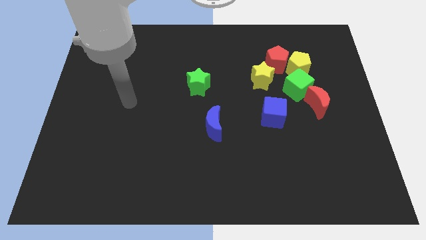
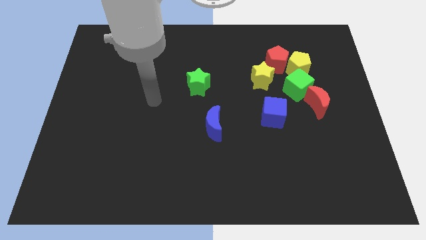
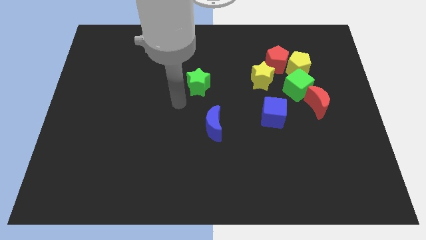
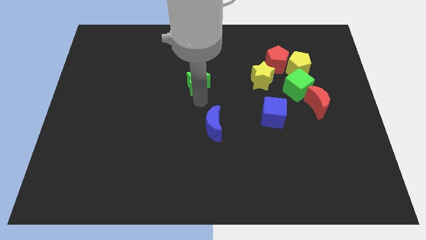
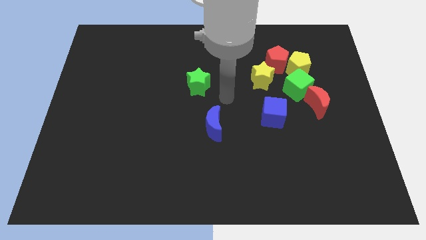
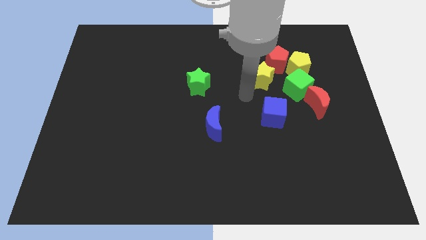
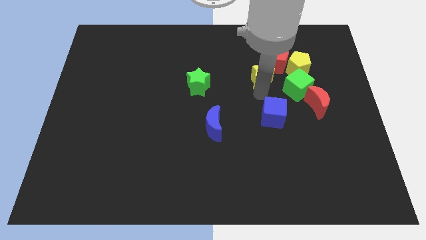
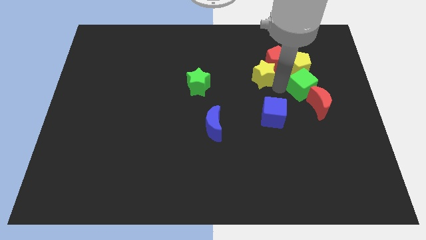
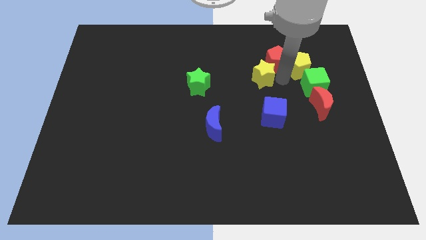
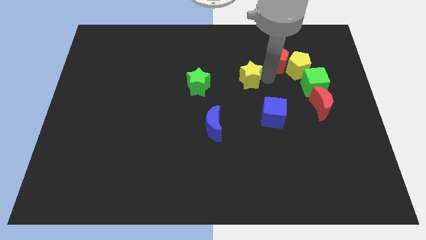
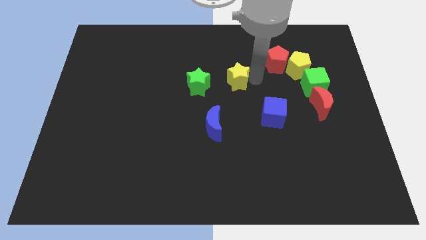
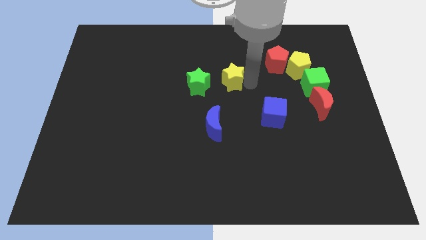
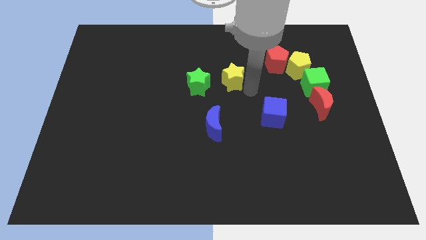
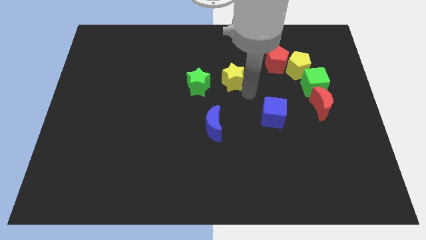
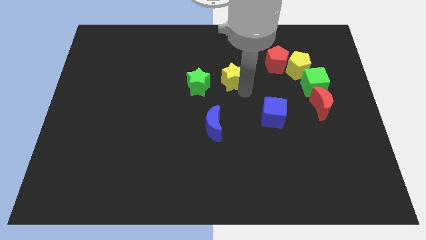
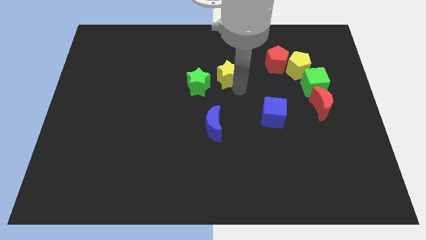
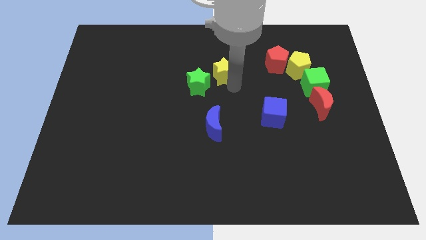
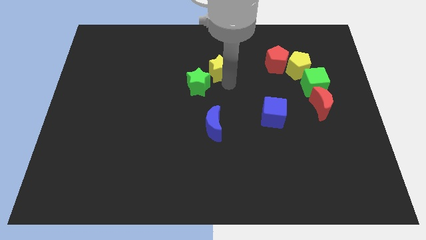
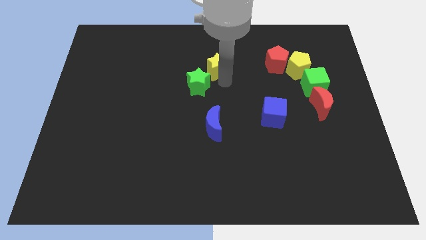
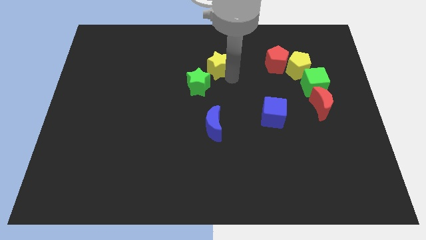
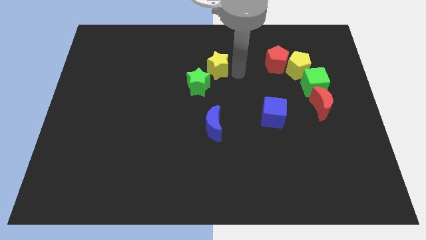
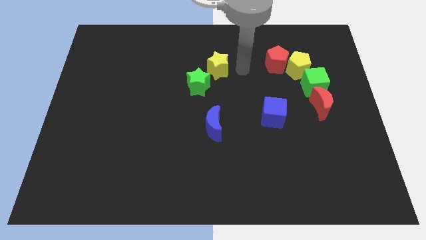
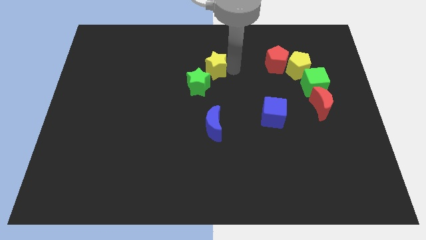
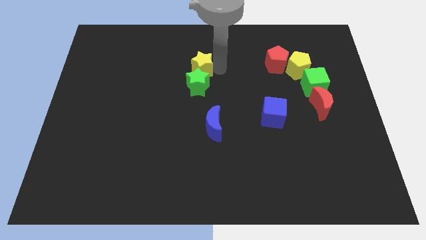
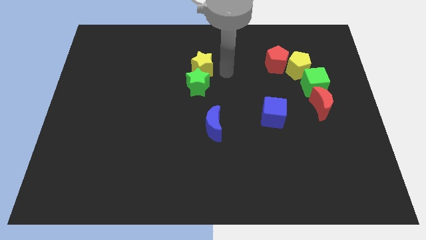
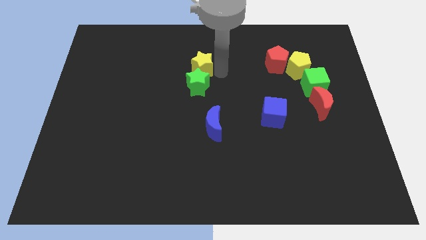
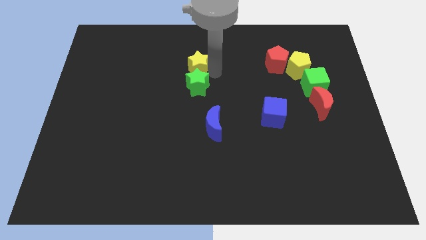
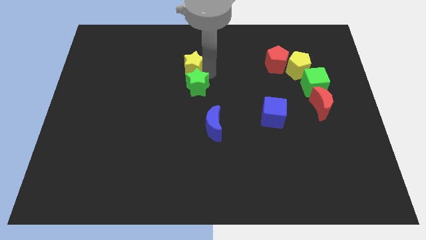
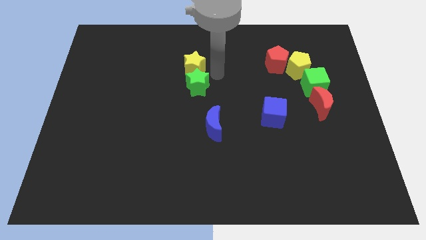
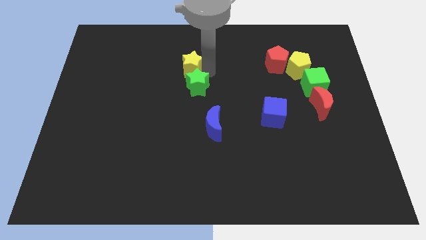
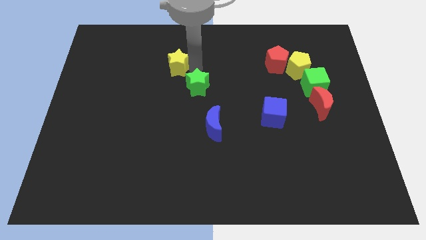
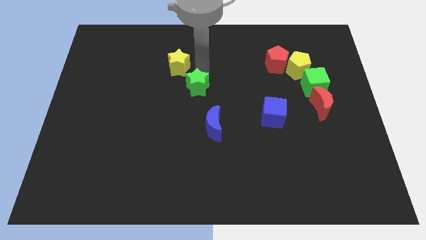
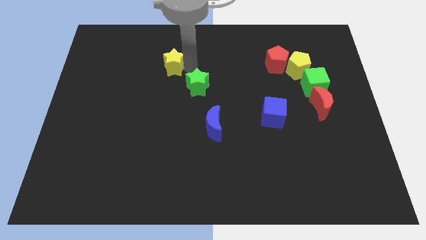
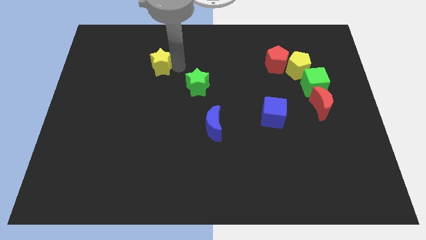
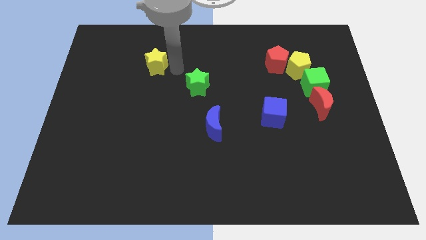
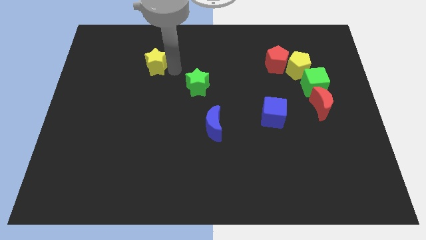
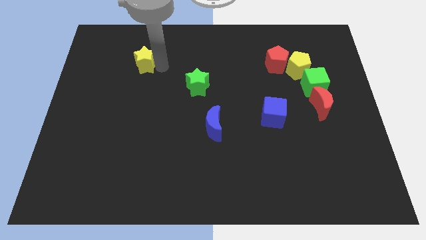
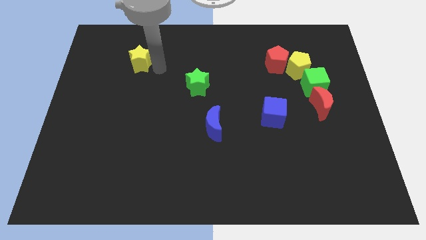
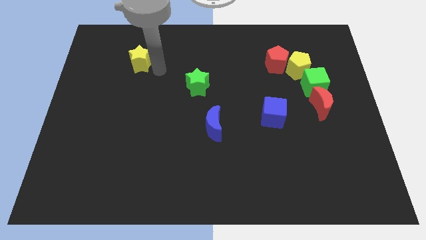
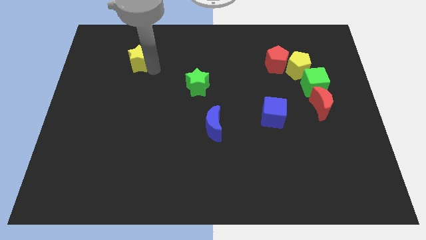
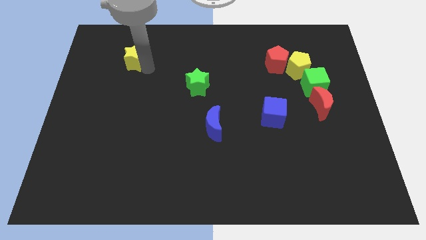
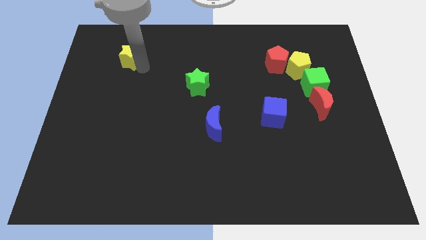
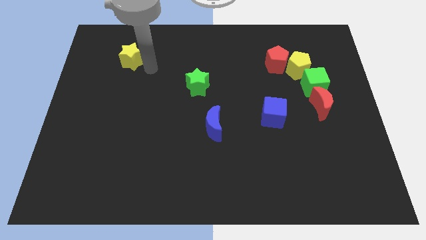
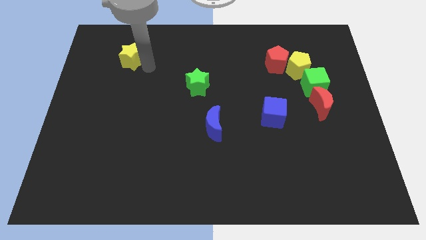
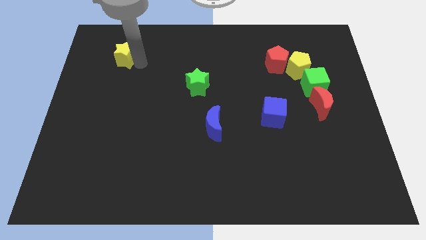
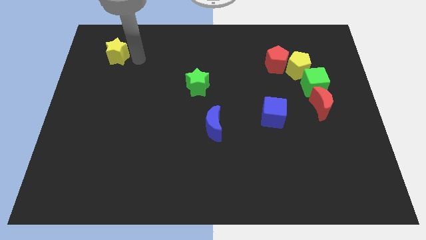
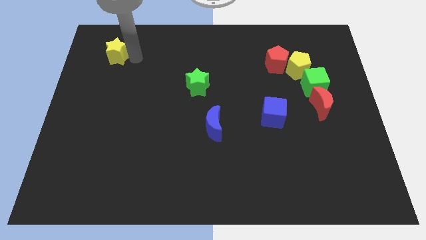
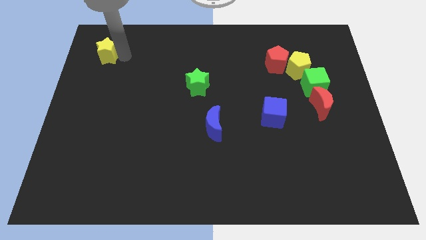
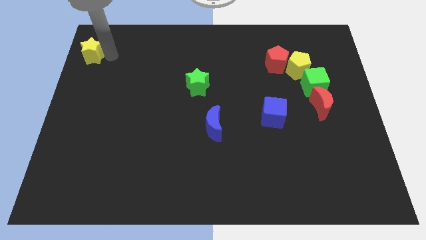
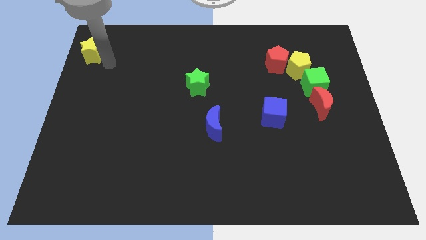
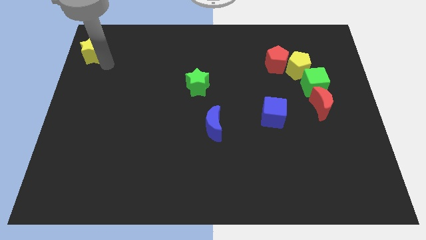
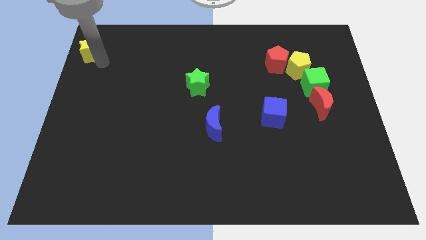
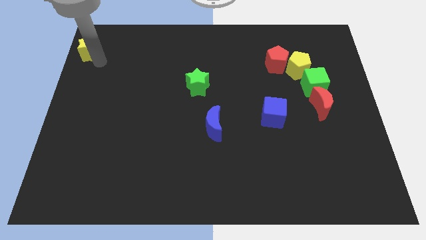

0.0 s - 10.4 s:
put the yellow star to the top left

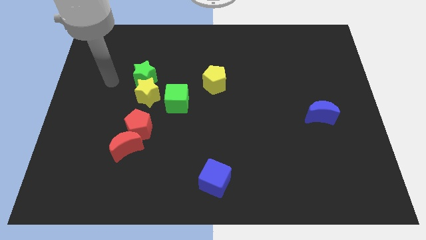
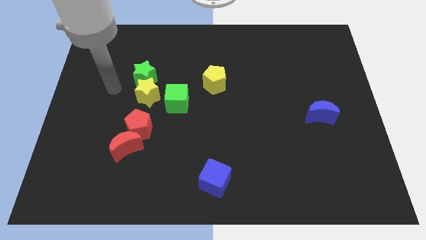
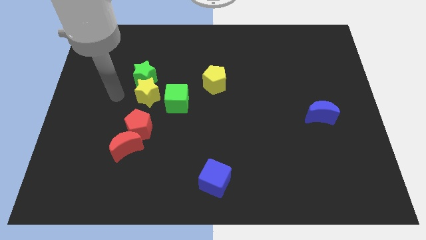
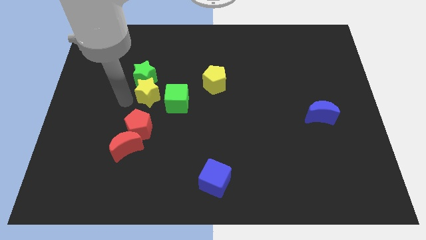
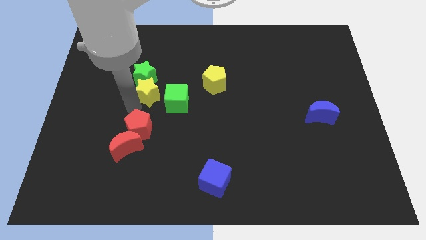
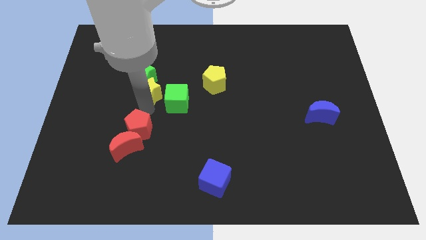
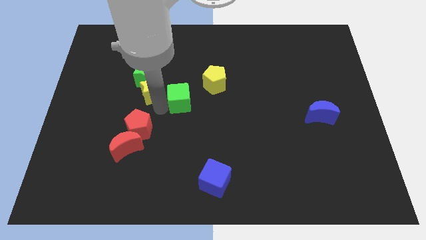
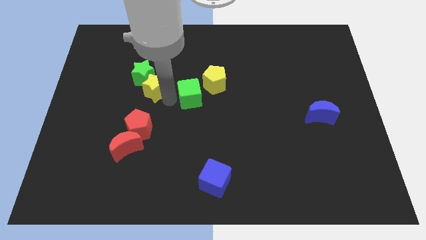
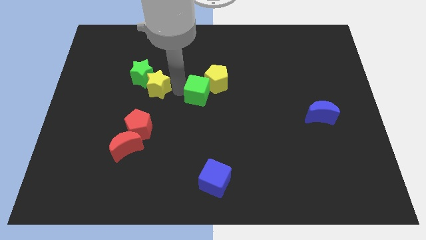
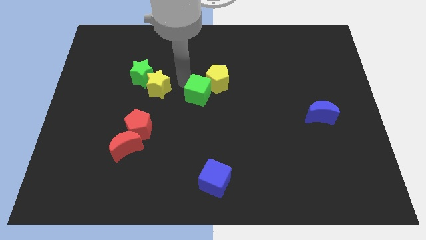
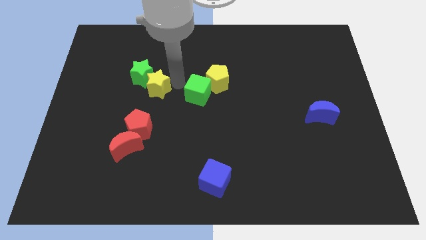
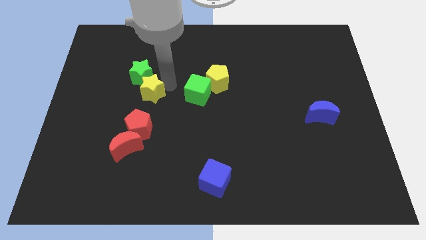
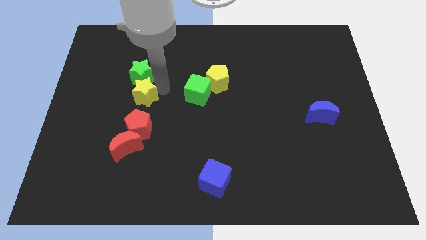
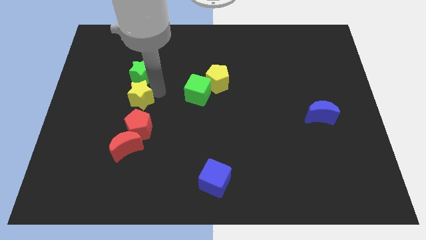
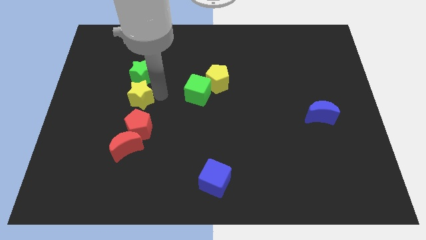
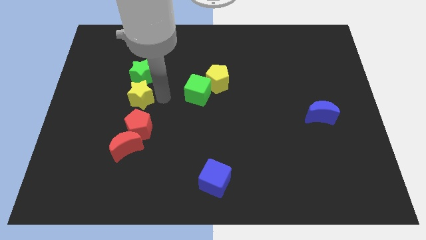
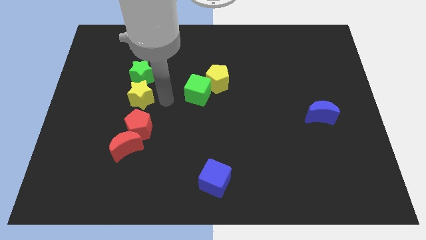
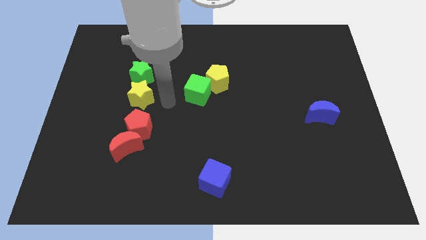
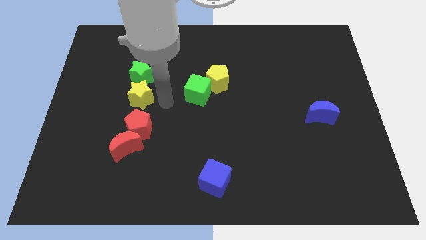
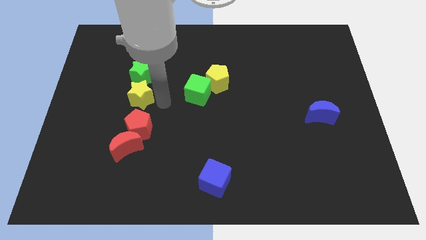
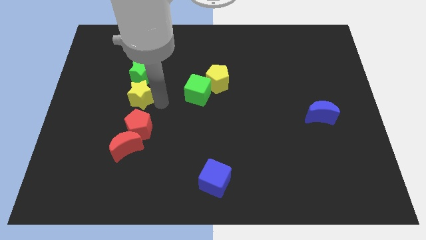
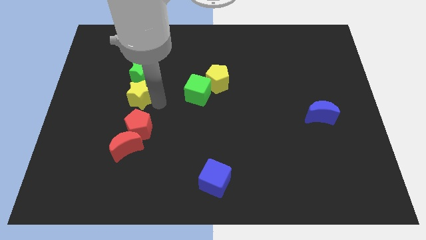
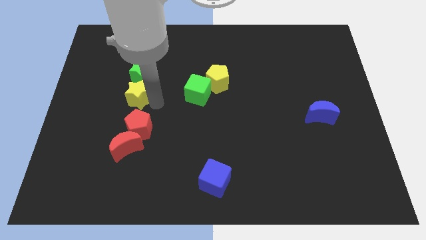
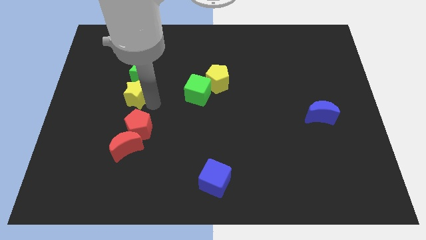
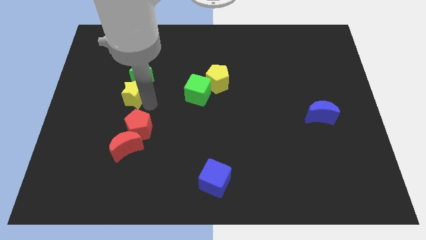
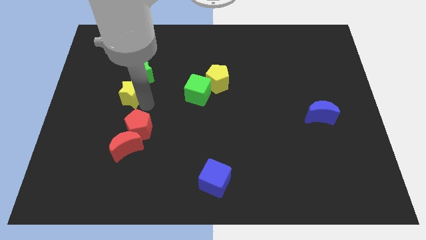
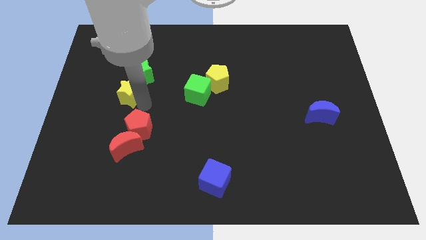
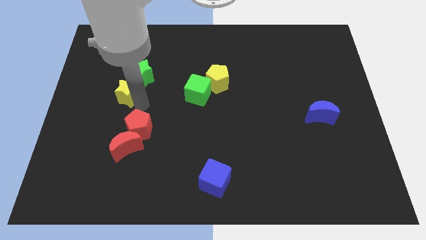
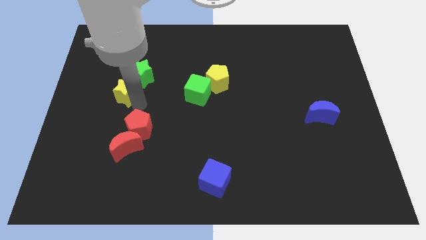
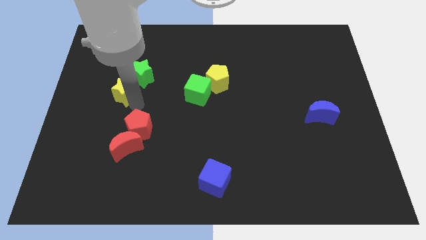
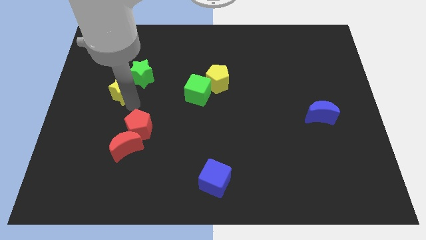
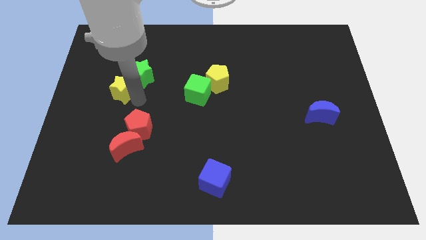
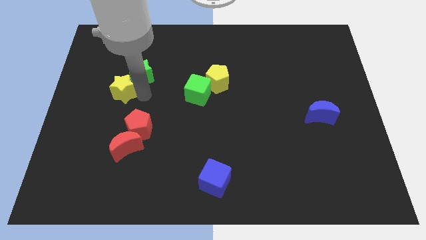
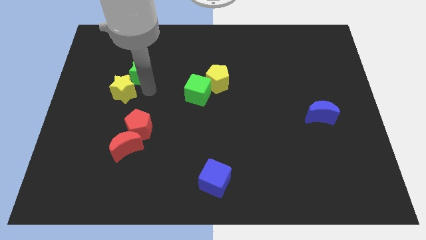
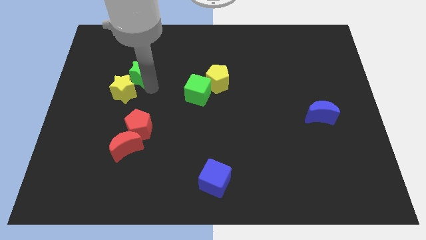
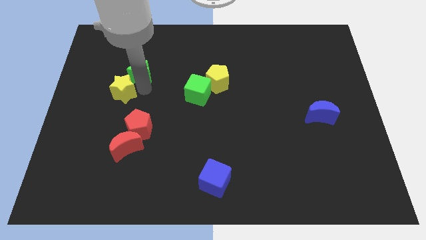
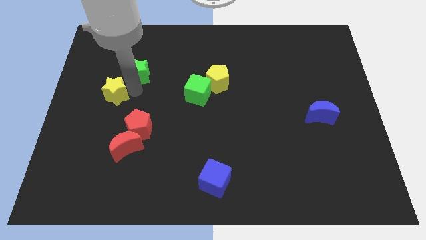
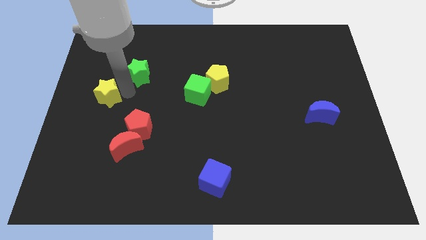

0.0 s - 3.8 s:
put the yellow star to the left side
